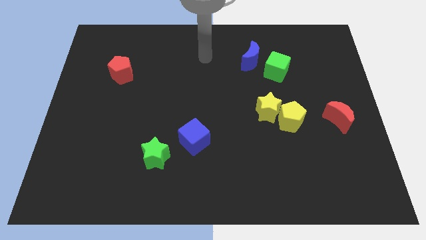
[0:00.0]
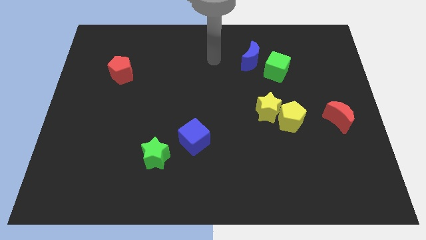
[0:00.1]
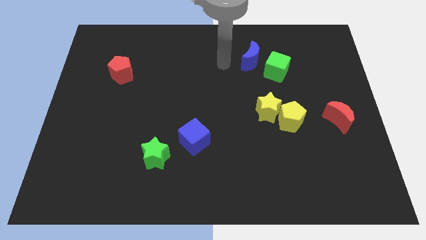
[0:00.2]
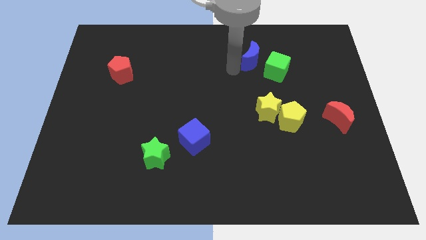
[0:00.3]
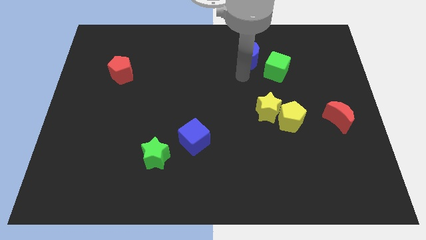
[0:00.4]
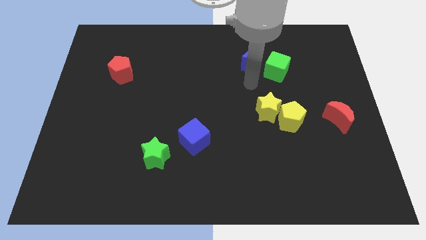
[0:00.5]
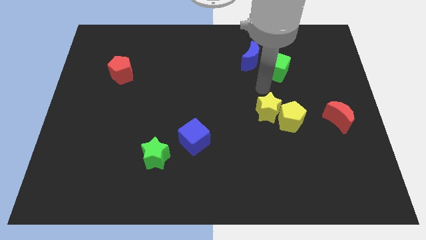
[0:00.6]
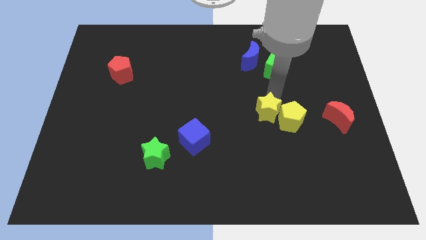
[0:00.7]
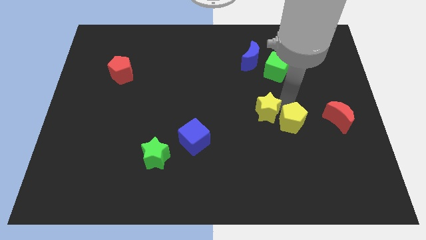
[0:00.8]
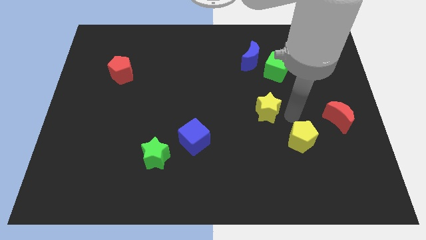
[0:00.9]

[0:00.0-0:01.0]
pull the yellow star apart from the yellow pentagon

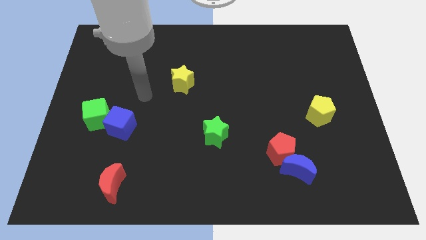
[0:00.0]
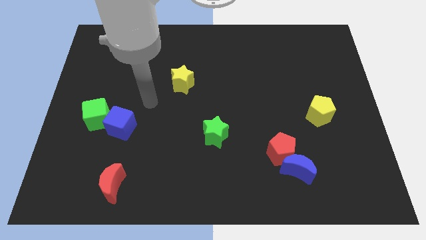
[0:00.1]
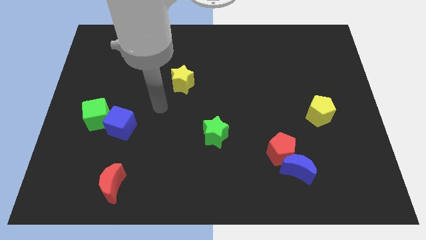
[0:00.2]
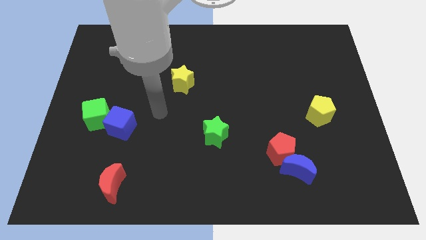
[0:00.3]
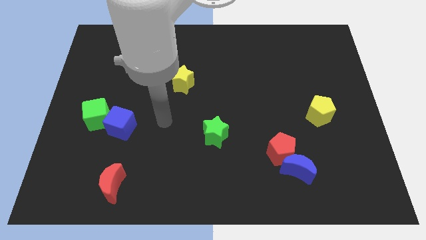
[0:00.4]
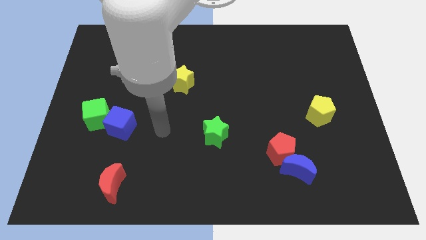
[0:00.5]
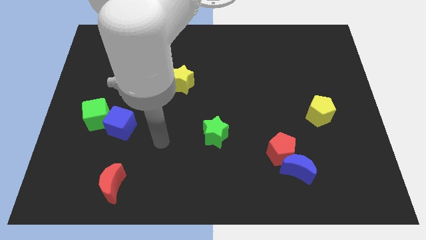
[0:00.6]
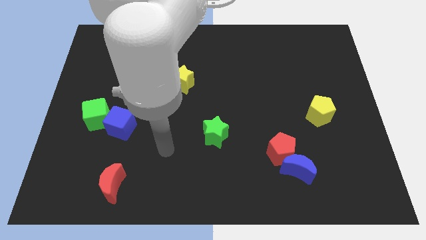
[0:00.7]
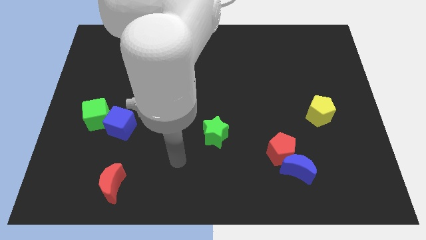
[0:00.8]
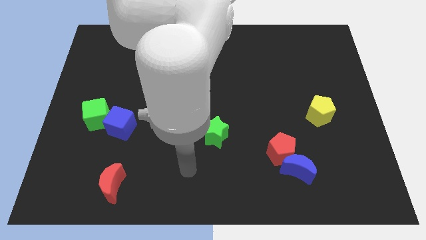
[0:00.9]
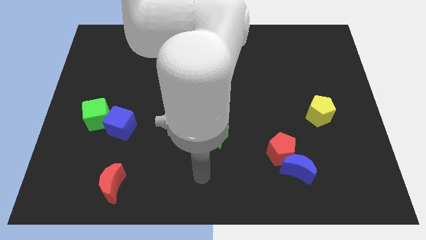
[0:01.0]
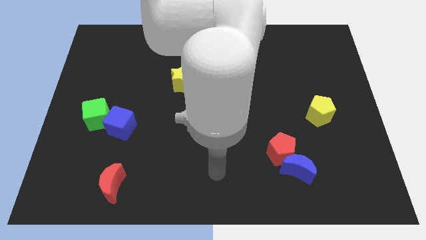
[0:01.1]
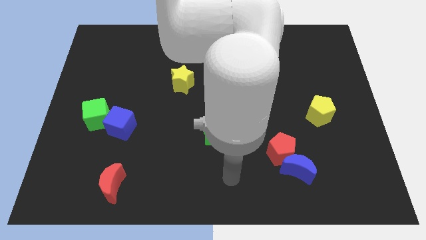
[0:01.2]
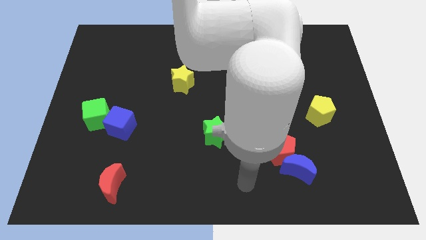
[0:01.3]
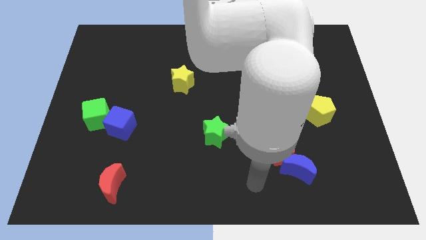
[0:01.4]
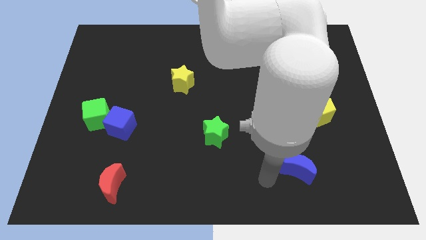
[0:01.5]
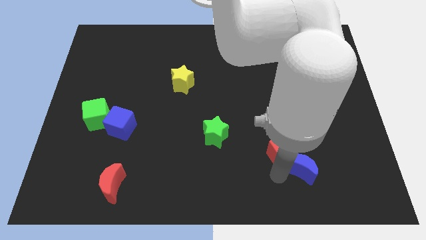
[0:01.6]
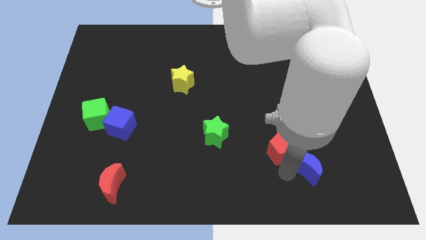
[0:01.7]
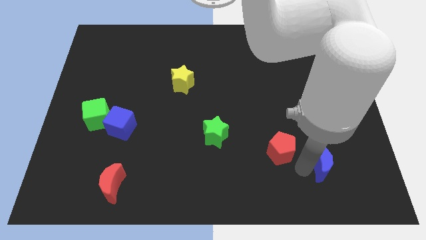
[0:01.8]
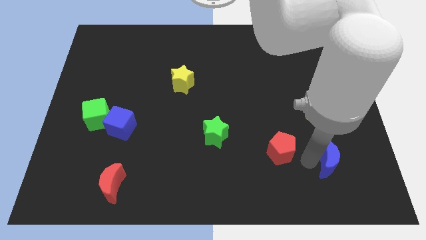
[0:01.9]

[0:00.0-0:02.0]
move the red pentagon away from the blue moon

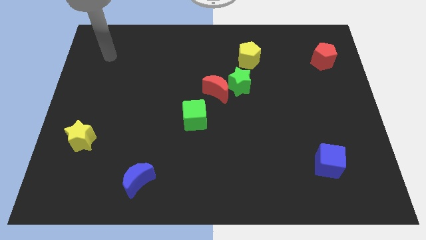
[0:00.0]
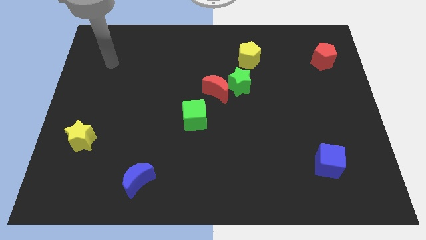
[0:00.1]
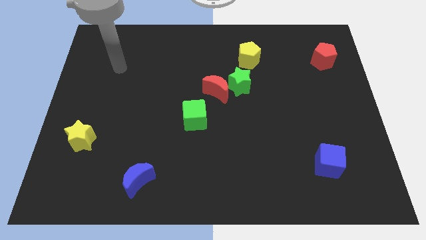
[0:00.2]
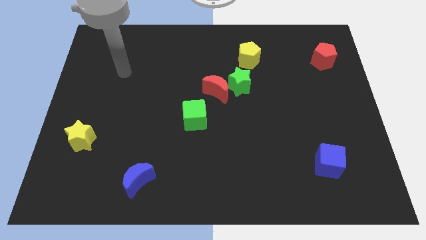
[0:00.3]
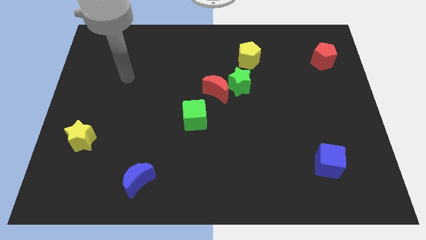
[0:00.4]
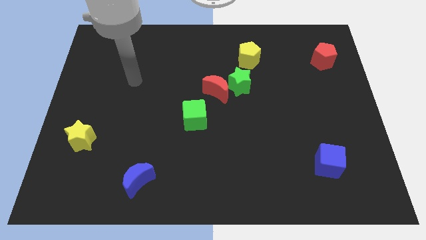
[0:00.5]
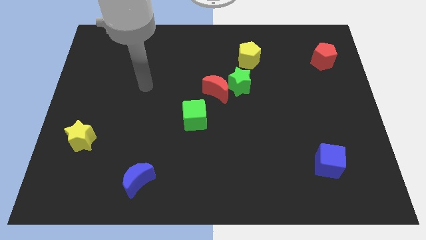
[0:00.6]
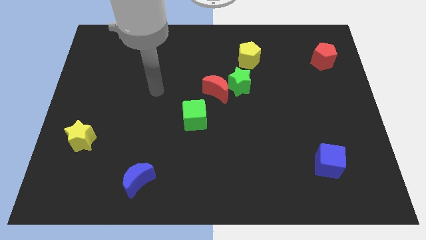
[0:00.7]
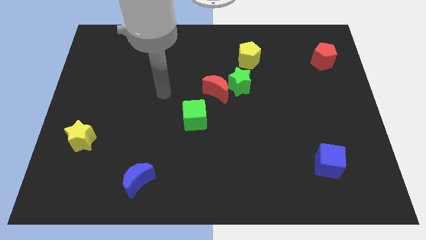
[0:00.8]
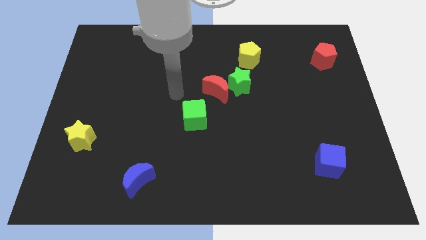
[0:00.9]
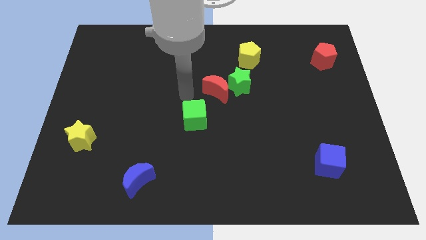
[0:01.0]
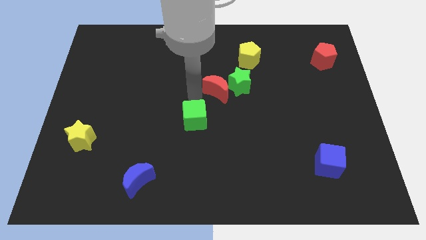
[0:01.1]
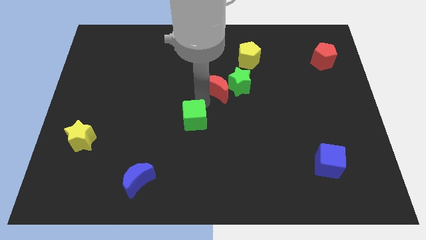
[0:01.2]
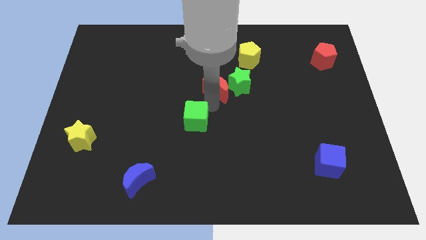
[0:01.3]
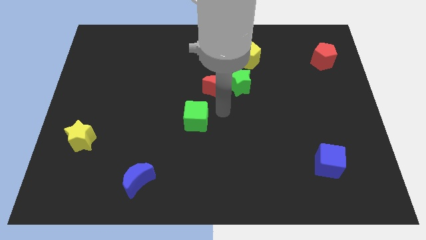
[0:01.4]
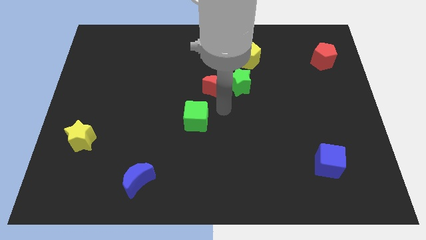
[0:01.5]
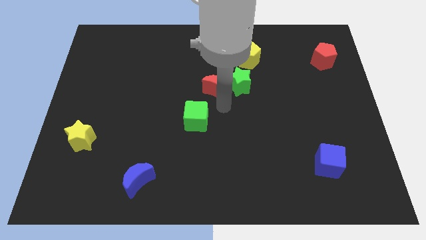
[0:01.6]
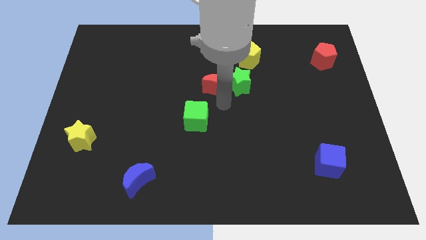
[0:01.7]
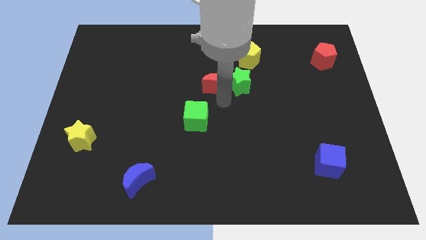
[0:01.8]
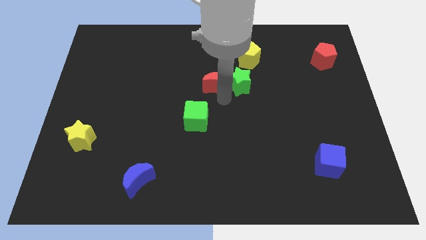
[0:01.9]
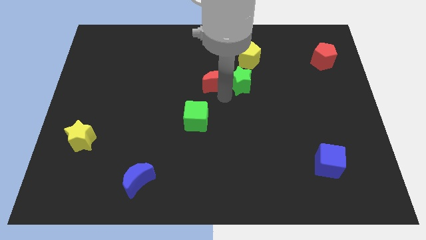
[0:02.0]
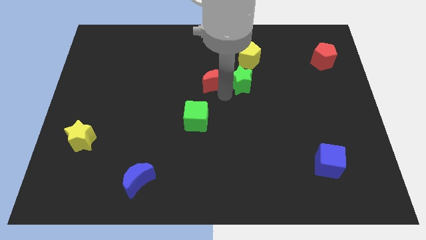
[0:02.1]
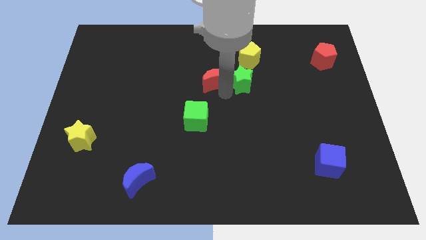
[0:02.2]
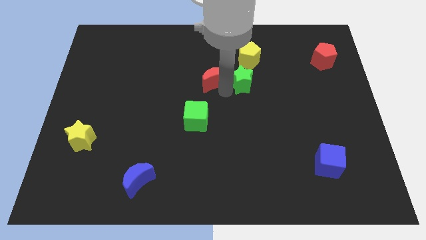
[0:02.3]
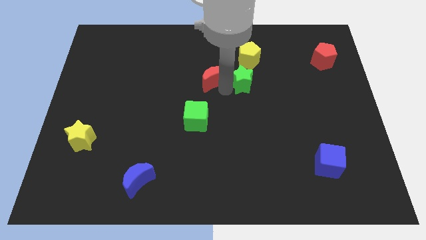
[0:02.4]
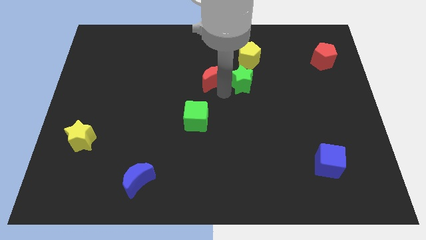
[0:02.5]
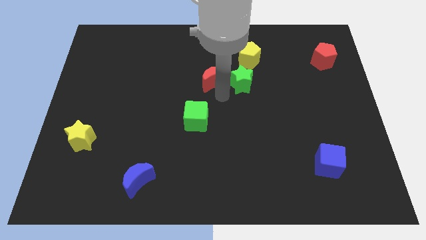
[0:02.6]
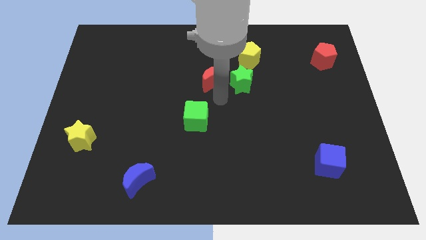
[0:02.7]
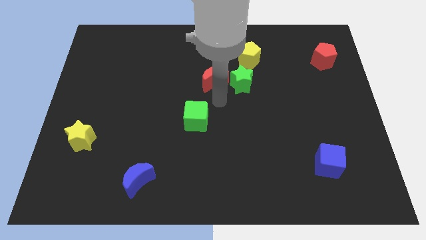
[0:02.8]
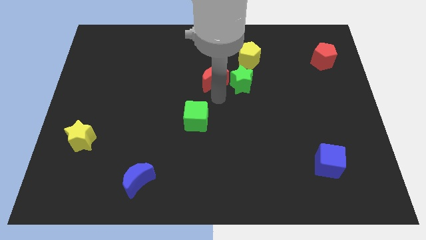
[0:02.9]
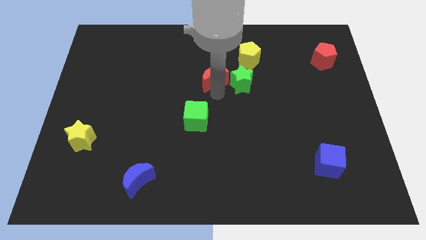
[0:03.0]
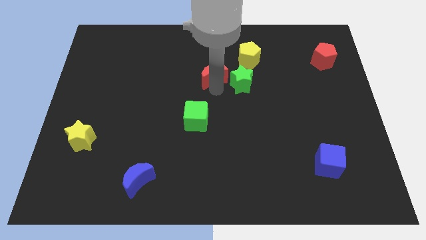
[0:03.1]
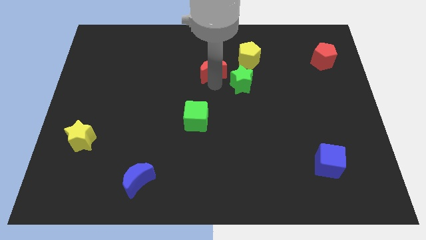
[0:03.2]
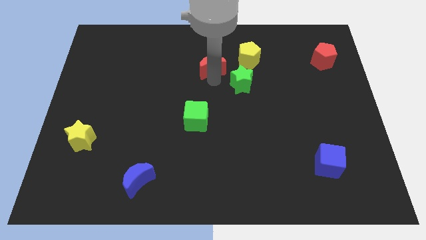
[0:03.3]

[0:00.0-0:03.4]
separate the red moon from the green star and green cube

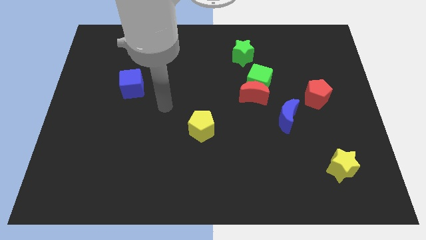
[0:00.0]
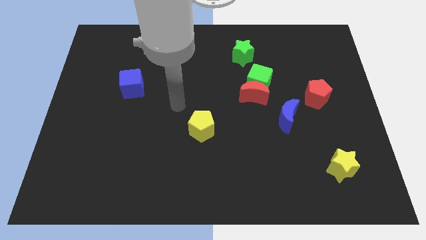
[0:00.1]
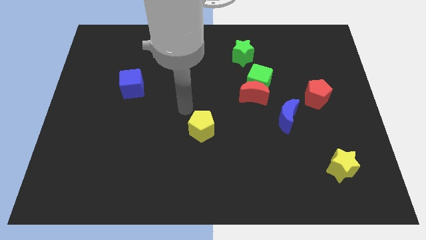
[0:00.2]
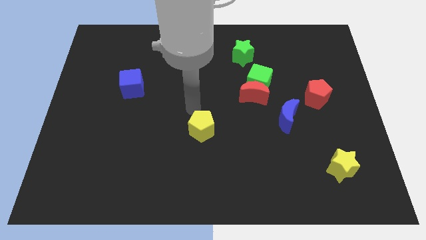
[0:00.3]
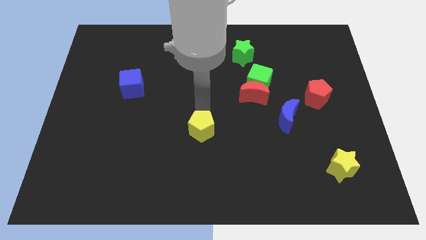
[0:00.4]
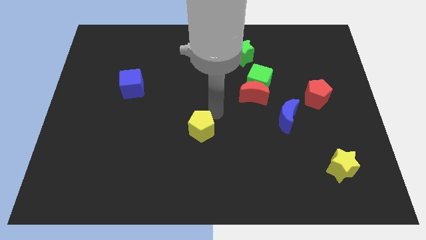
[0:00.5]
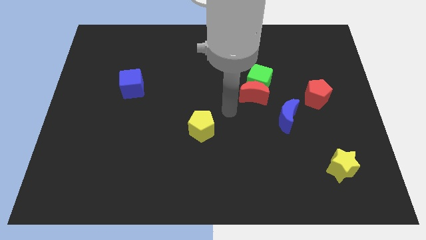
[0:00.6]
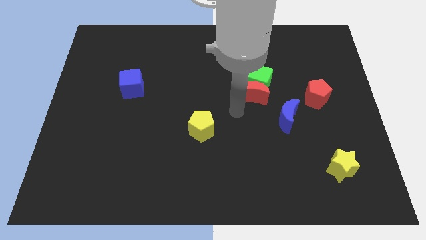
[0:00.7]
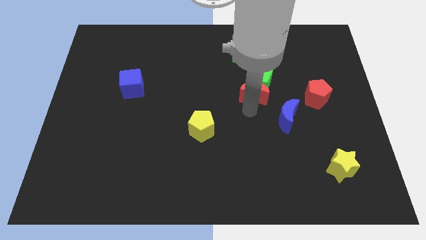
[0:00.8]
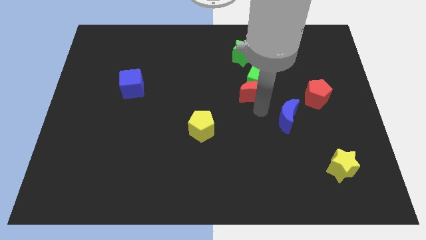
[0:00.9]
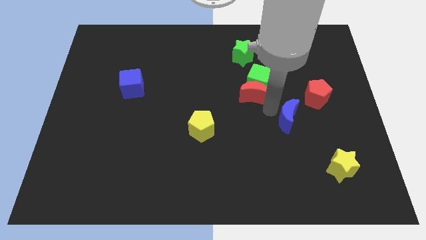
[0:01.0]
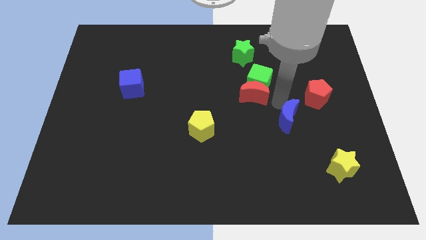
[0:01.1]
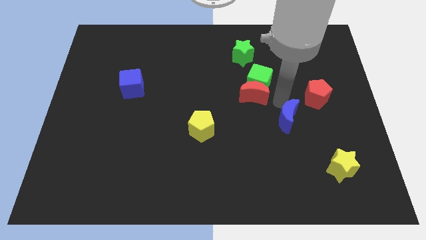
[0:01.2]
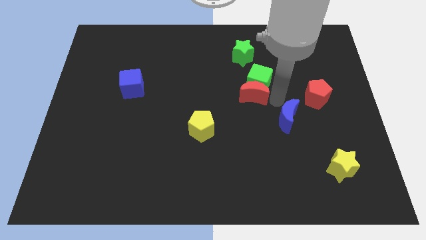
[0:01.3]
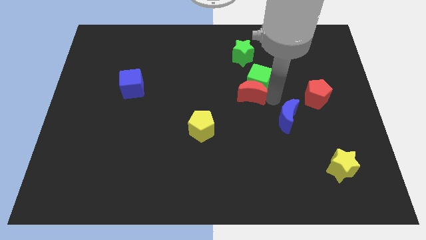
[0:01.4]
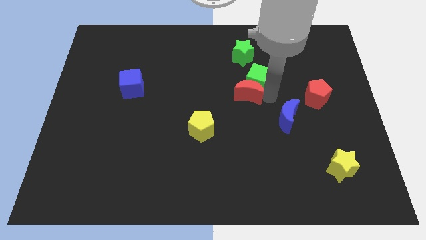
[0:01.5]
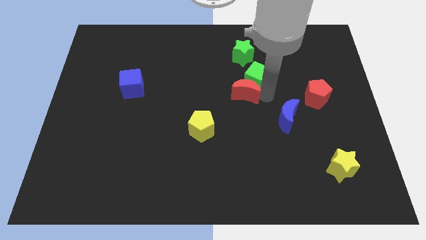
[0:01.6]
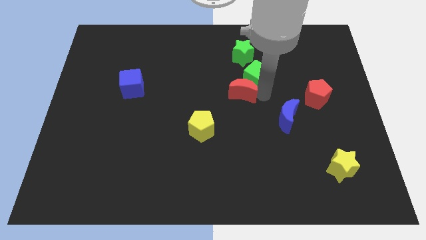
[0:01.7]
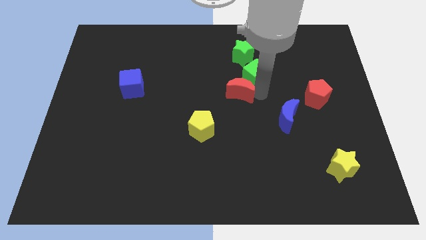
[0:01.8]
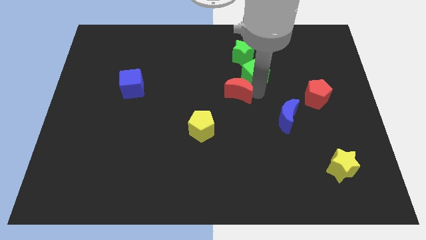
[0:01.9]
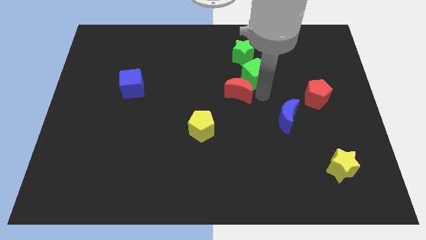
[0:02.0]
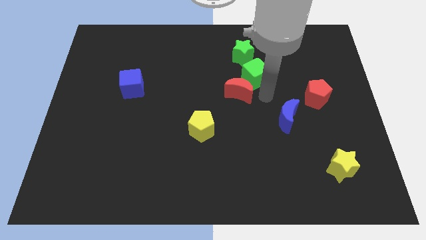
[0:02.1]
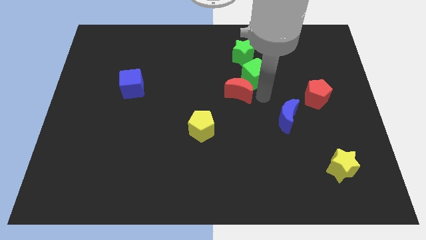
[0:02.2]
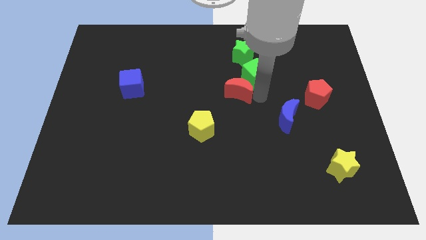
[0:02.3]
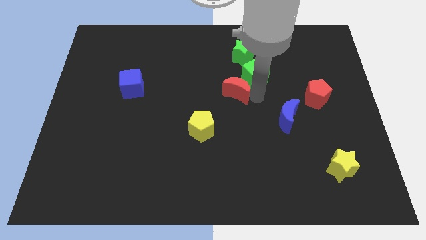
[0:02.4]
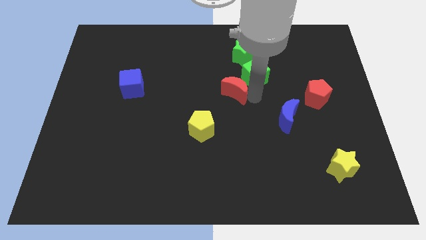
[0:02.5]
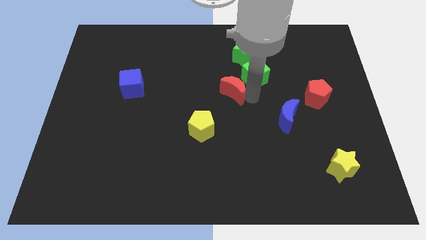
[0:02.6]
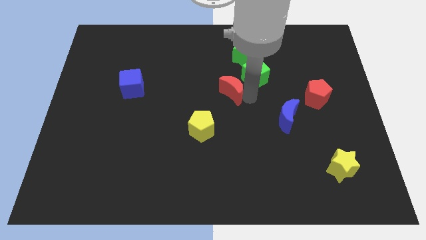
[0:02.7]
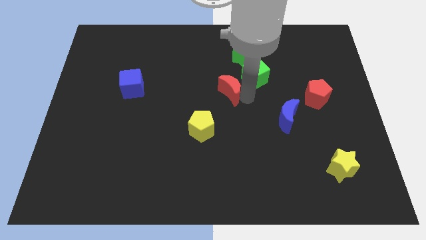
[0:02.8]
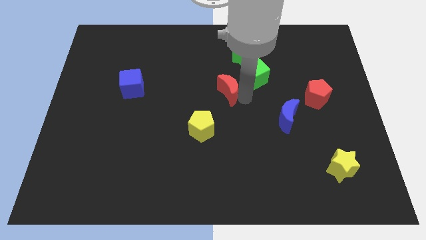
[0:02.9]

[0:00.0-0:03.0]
pull the red moon apart from the green cube and blue moon
